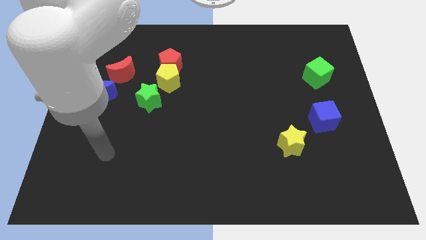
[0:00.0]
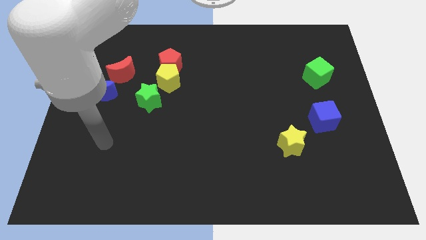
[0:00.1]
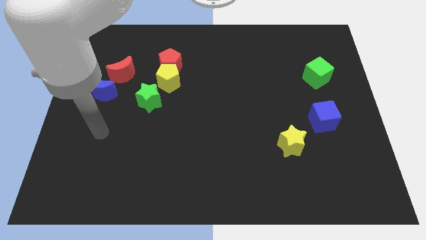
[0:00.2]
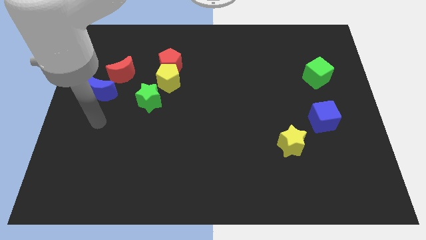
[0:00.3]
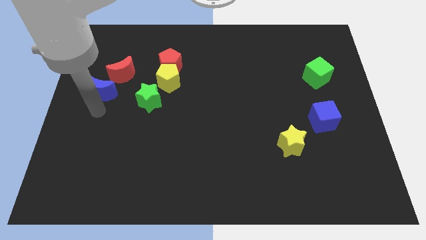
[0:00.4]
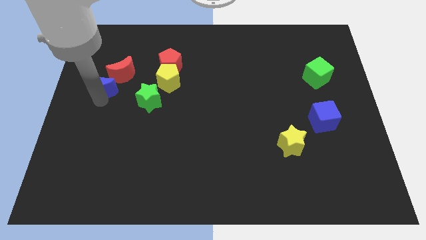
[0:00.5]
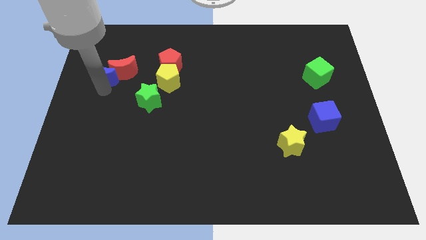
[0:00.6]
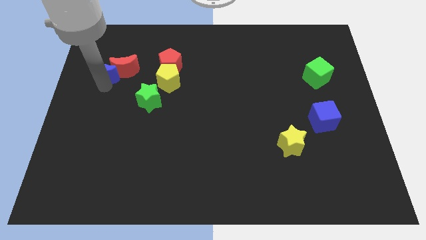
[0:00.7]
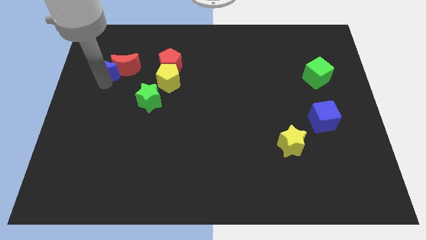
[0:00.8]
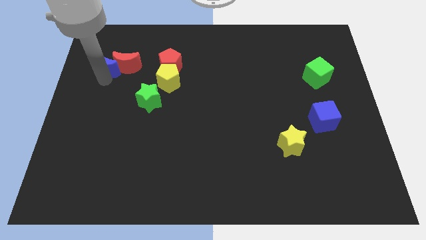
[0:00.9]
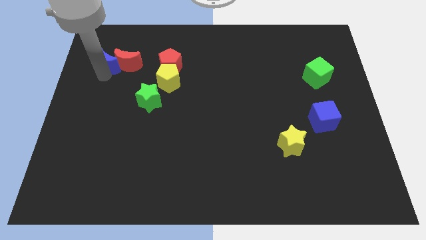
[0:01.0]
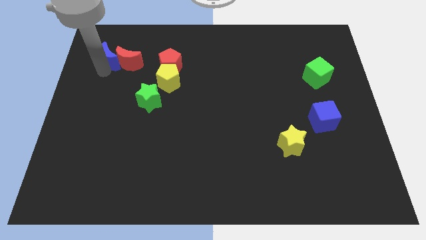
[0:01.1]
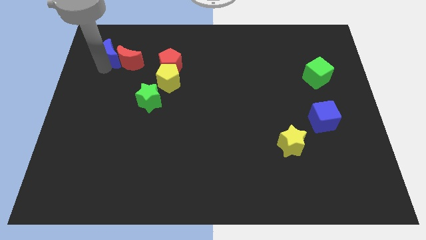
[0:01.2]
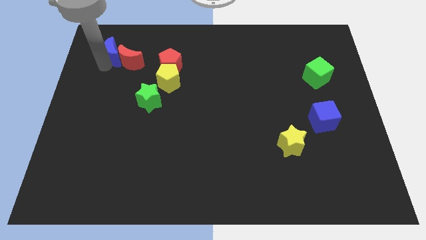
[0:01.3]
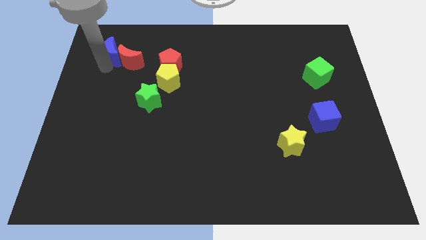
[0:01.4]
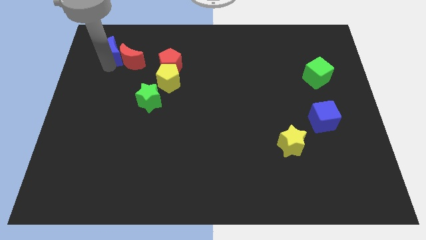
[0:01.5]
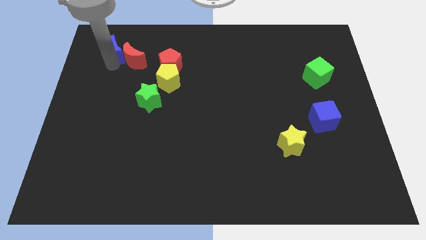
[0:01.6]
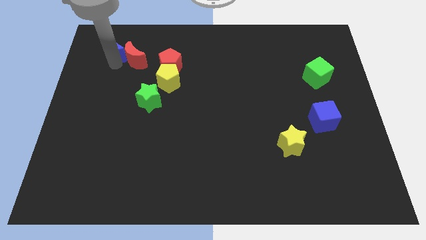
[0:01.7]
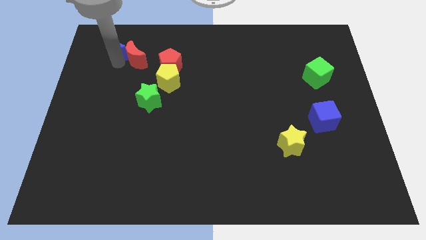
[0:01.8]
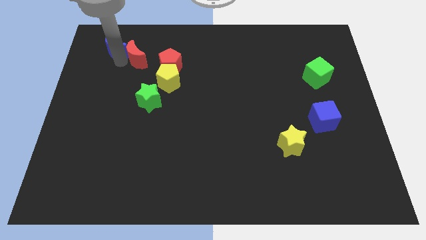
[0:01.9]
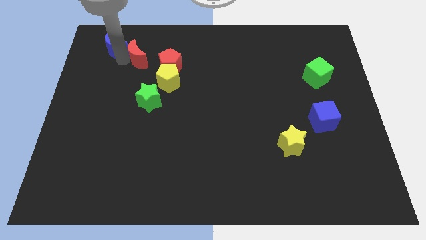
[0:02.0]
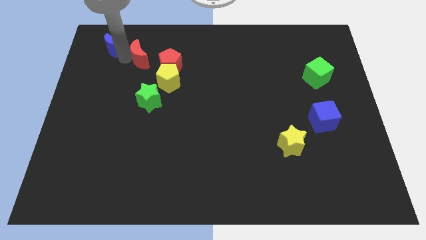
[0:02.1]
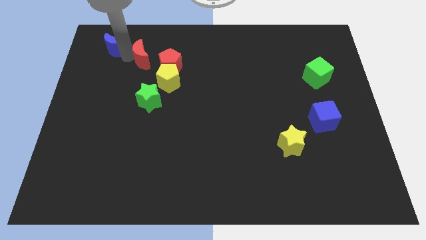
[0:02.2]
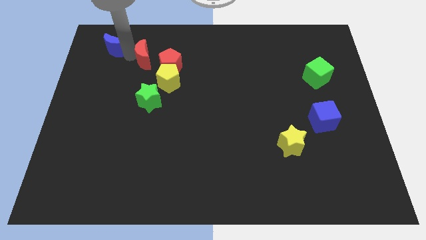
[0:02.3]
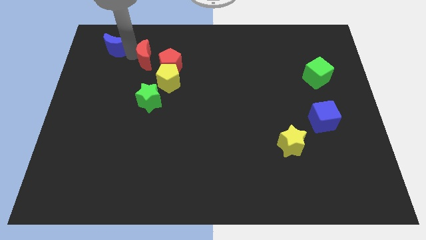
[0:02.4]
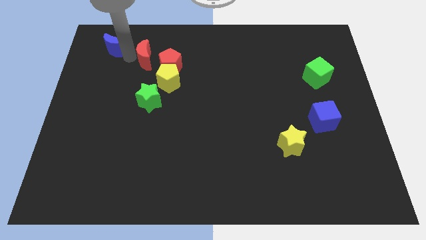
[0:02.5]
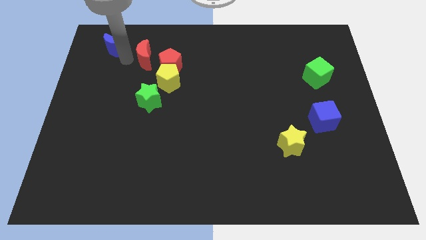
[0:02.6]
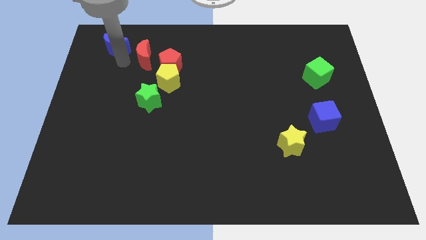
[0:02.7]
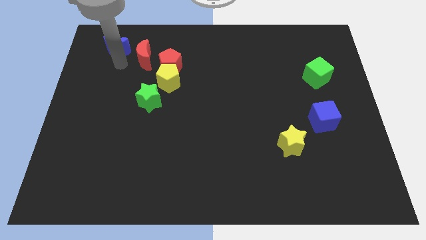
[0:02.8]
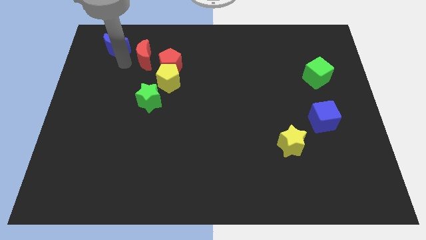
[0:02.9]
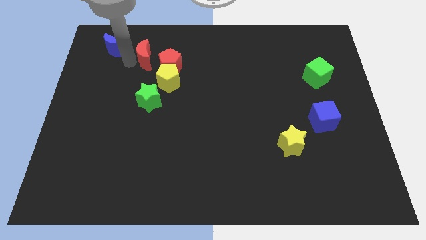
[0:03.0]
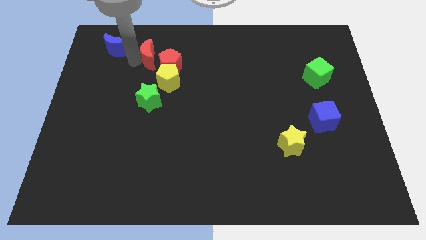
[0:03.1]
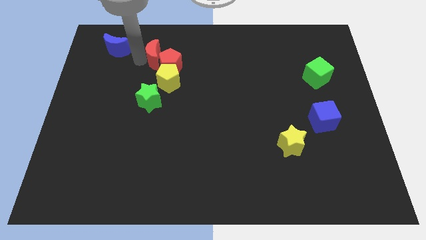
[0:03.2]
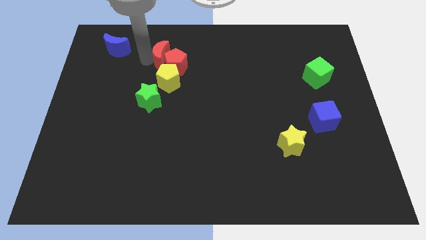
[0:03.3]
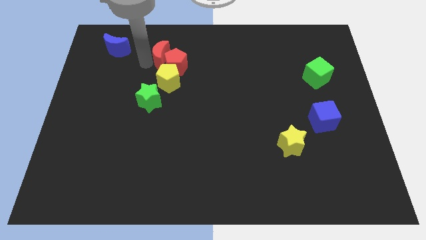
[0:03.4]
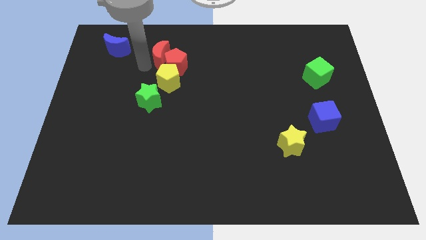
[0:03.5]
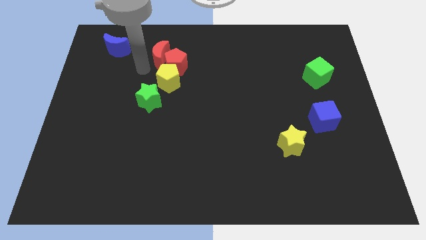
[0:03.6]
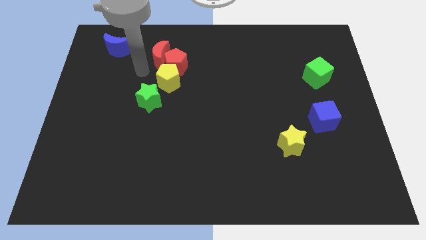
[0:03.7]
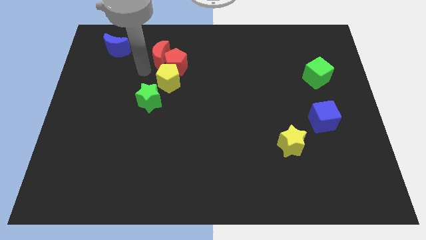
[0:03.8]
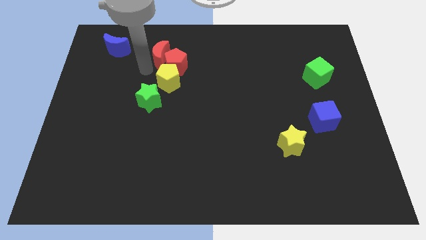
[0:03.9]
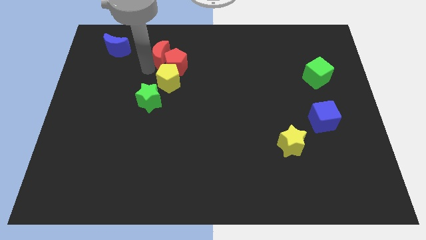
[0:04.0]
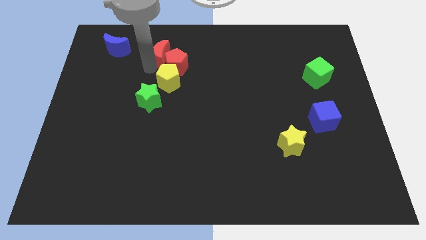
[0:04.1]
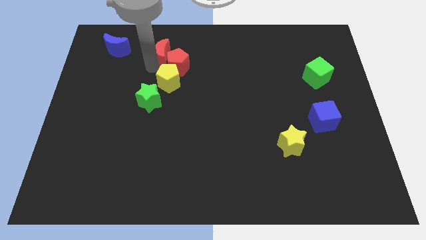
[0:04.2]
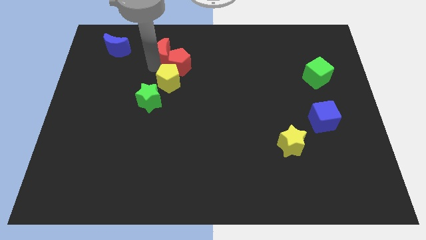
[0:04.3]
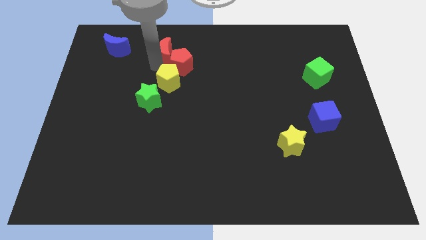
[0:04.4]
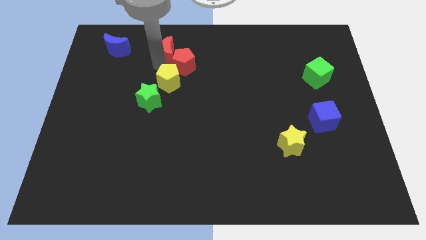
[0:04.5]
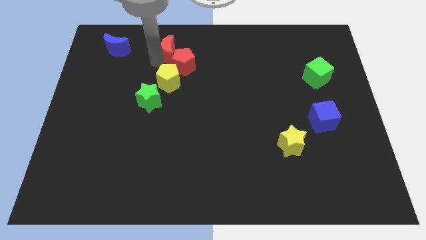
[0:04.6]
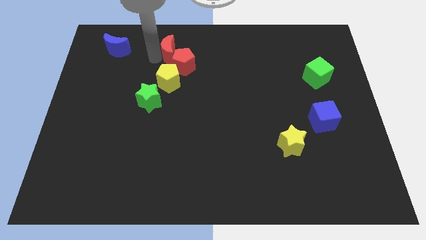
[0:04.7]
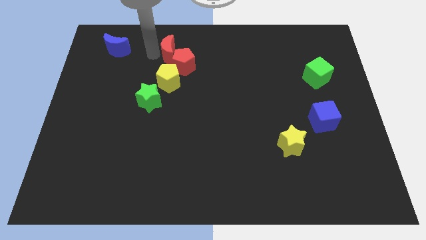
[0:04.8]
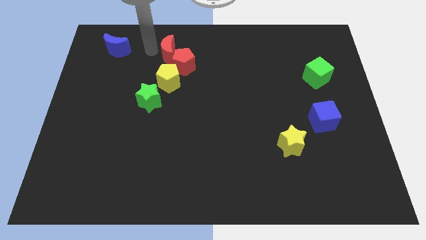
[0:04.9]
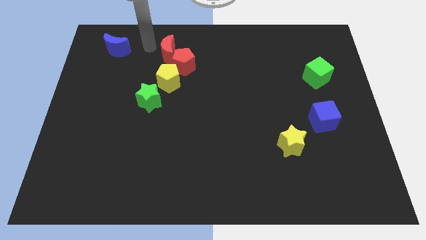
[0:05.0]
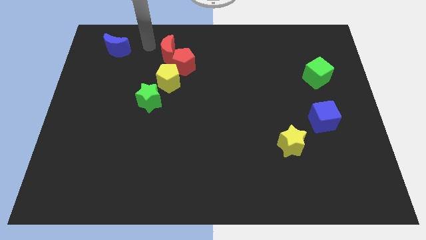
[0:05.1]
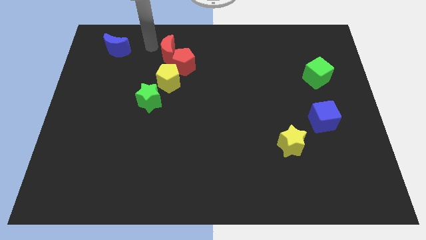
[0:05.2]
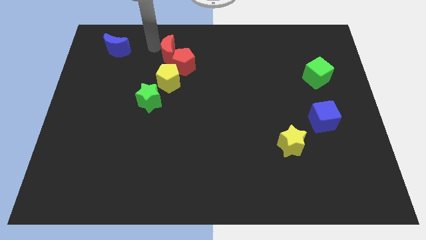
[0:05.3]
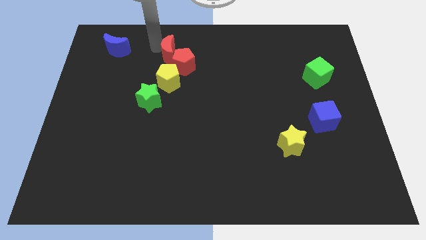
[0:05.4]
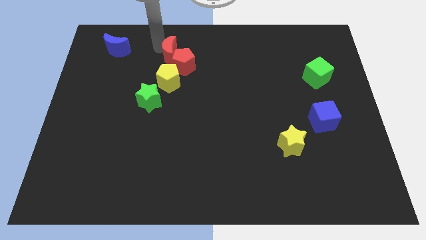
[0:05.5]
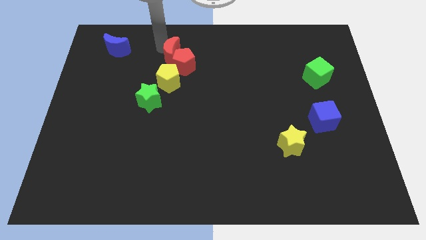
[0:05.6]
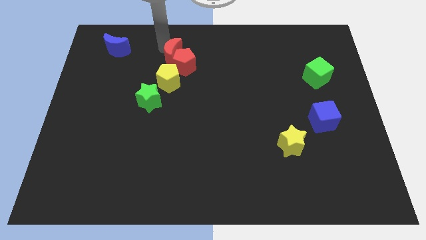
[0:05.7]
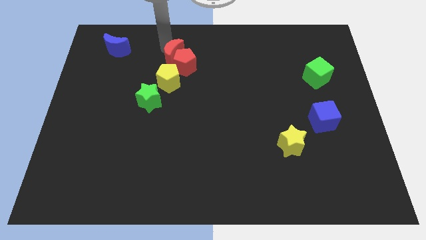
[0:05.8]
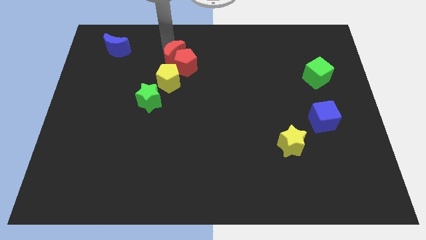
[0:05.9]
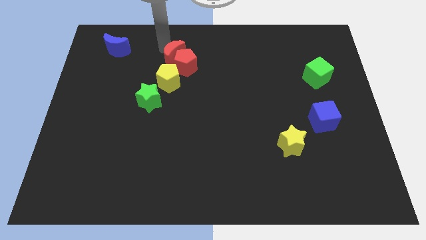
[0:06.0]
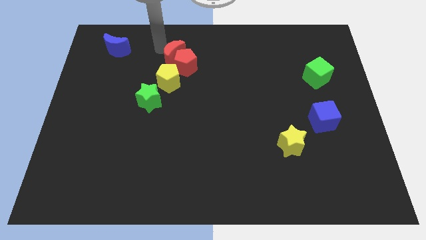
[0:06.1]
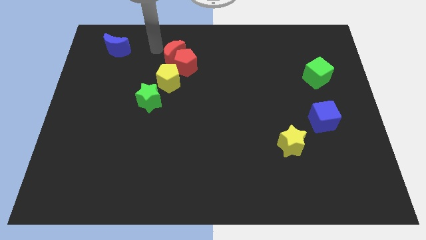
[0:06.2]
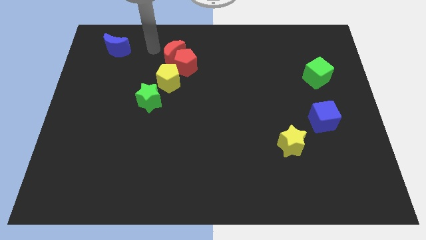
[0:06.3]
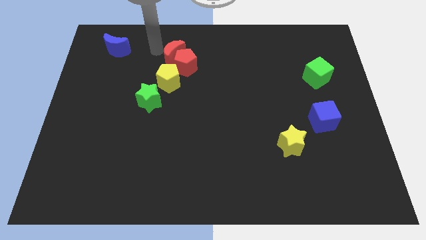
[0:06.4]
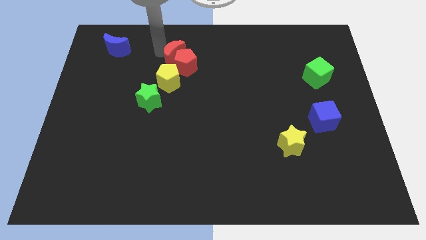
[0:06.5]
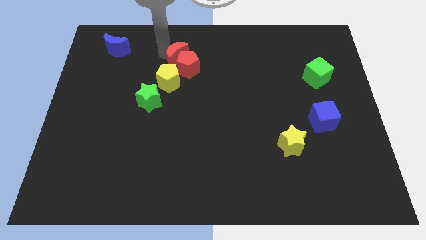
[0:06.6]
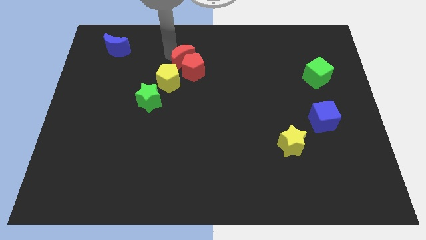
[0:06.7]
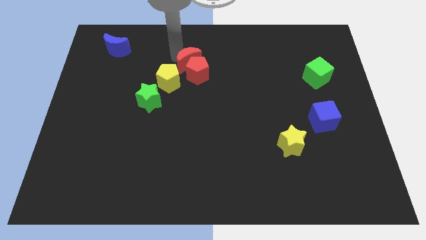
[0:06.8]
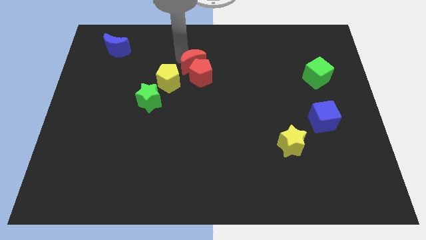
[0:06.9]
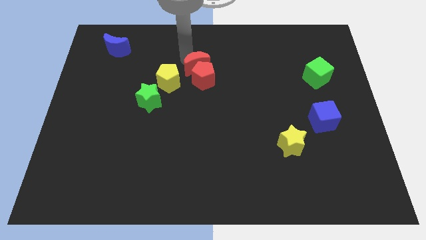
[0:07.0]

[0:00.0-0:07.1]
put the red moon to the middle
